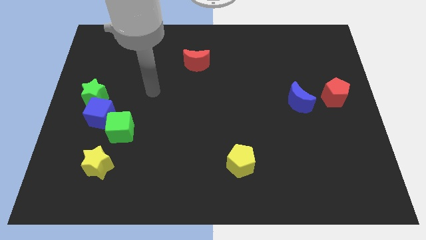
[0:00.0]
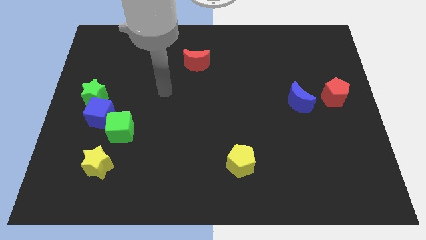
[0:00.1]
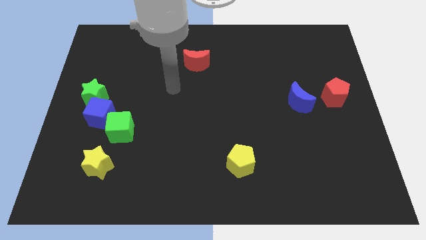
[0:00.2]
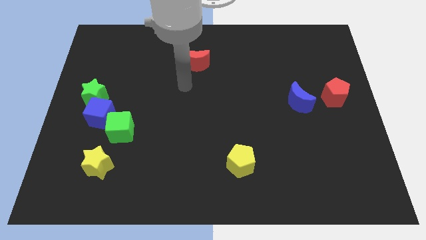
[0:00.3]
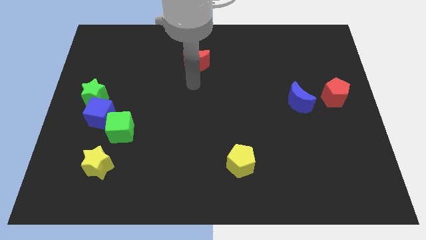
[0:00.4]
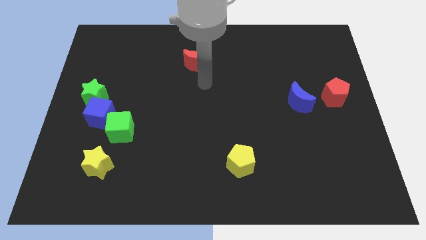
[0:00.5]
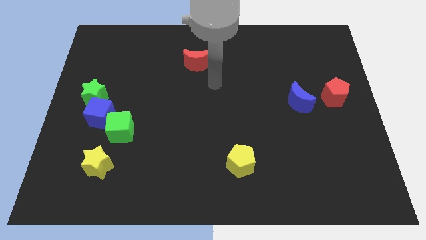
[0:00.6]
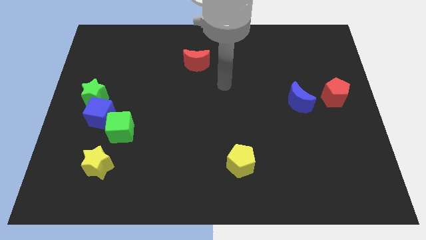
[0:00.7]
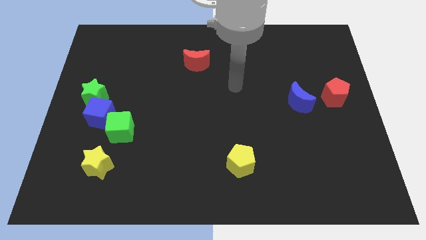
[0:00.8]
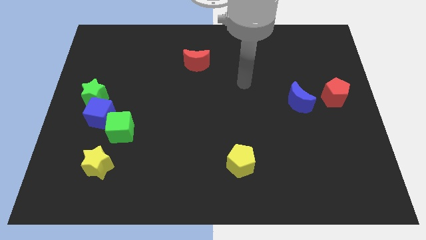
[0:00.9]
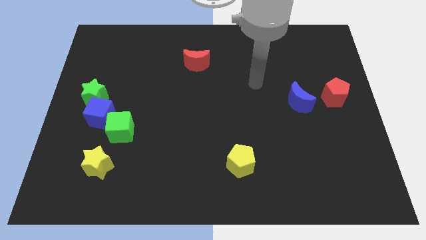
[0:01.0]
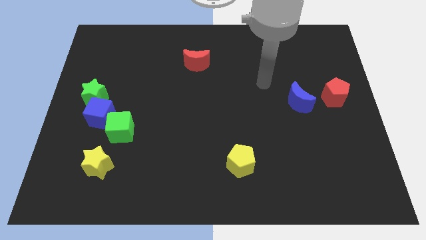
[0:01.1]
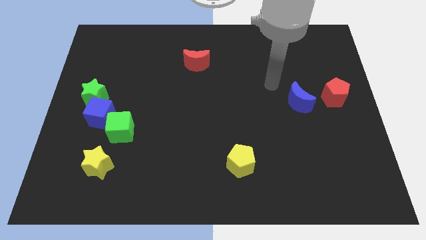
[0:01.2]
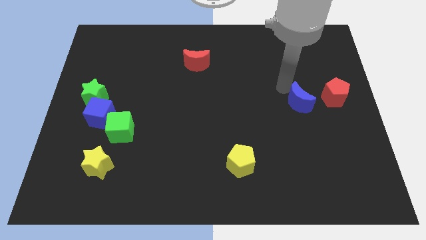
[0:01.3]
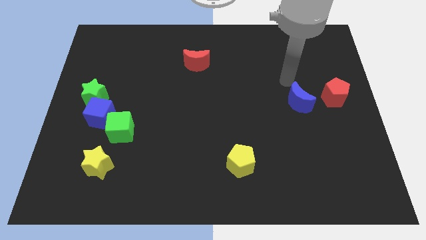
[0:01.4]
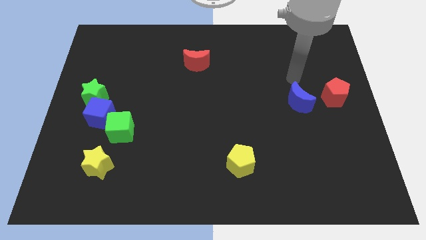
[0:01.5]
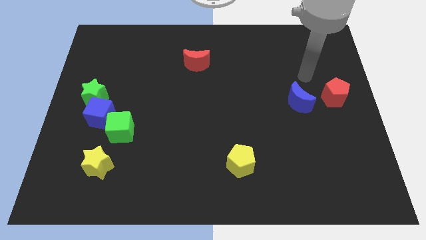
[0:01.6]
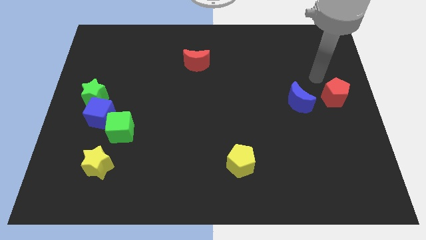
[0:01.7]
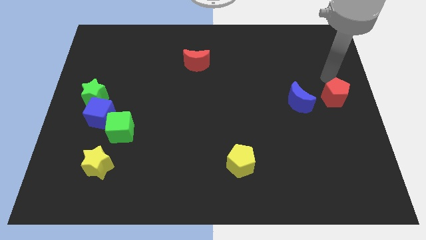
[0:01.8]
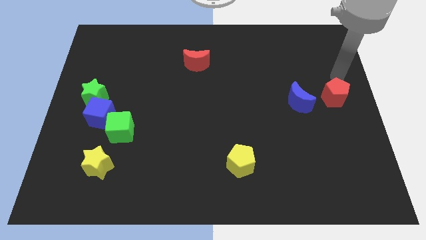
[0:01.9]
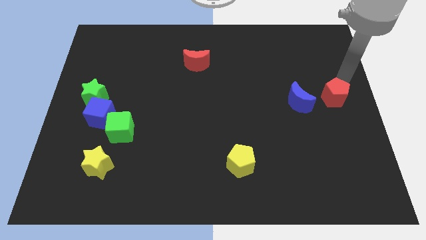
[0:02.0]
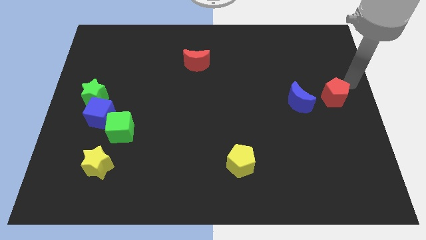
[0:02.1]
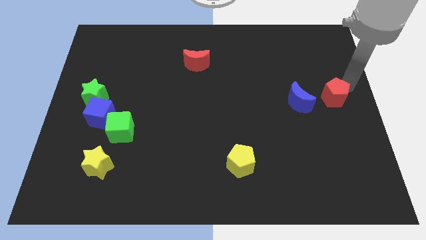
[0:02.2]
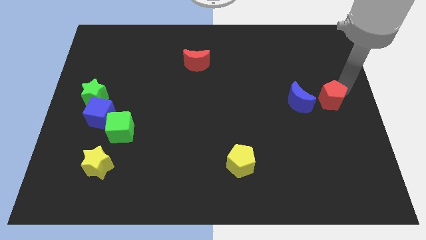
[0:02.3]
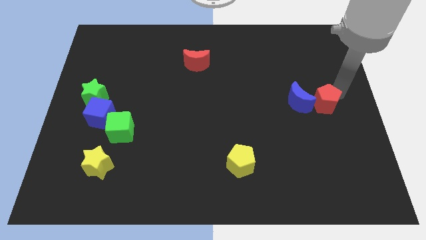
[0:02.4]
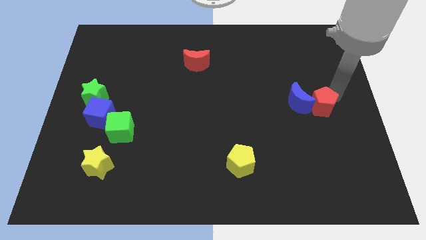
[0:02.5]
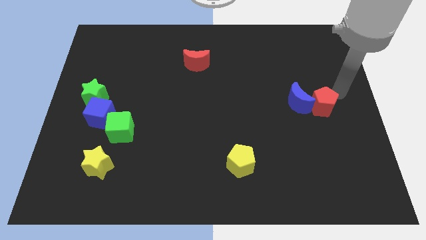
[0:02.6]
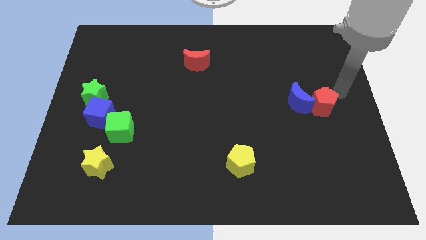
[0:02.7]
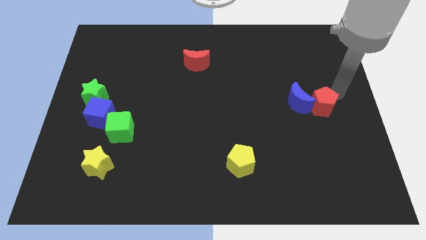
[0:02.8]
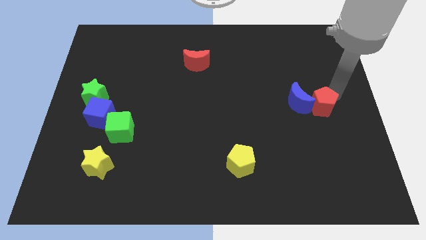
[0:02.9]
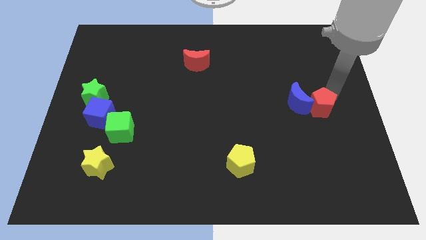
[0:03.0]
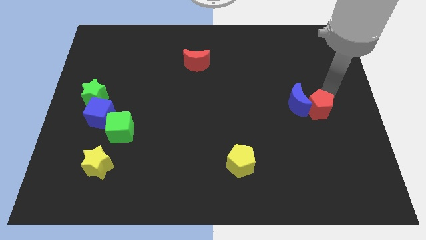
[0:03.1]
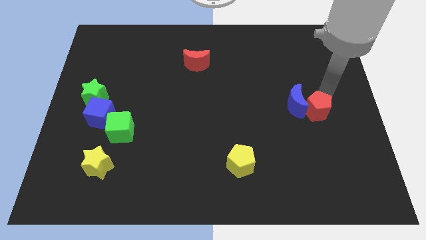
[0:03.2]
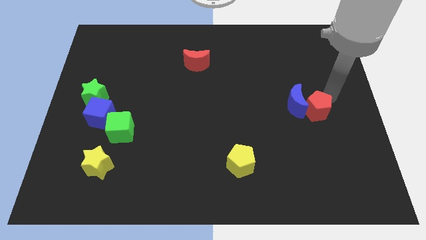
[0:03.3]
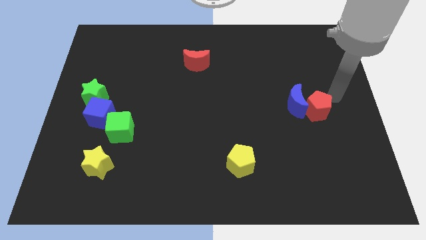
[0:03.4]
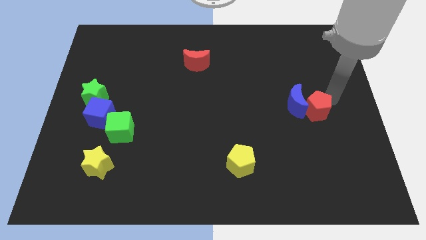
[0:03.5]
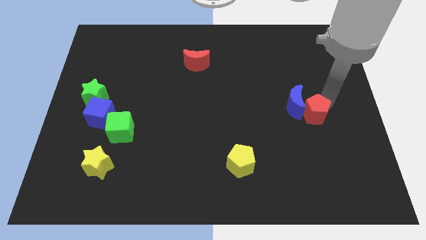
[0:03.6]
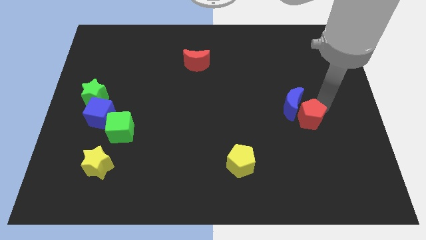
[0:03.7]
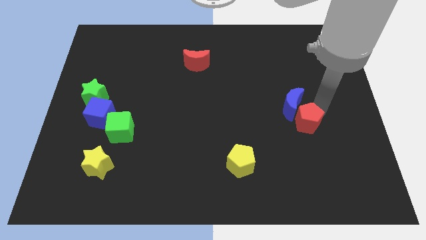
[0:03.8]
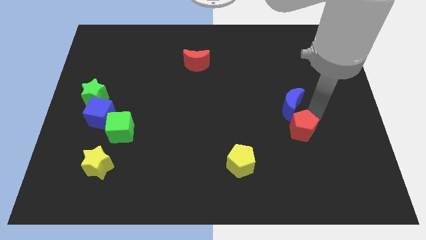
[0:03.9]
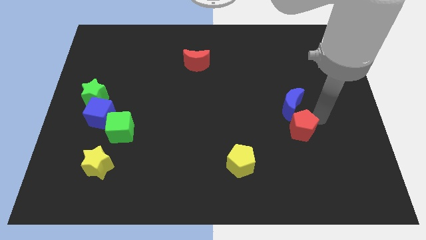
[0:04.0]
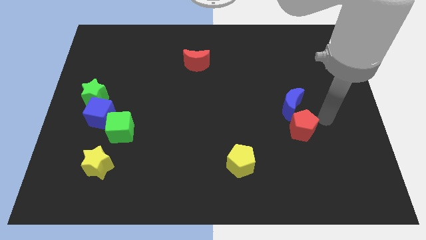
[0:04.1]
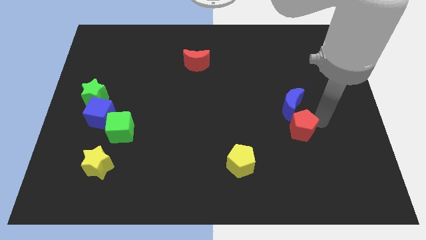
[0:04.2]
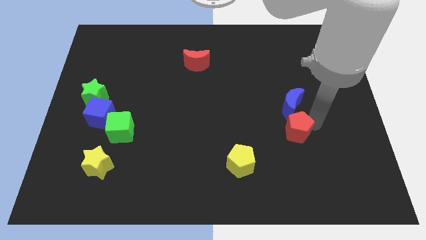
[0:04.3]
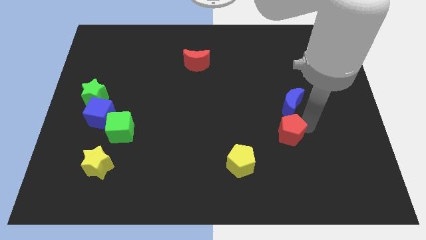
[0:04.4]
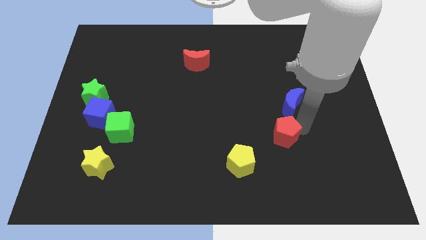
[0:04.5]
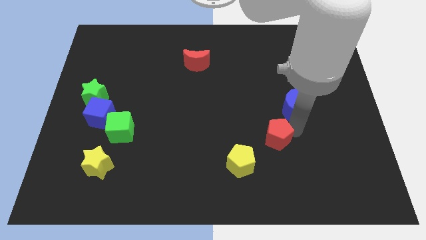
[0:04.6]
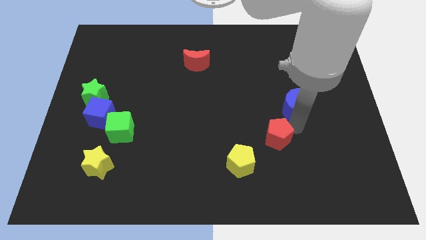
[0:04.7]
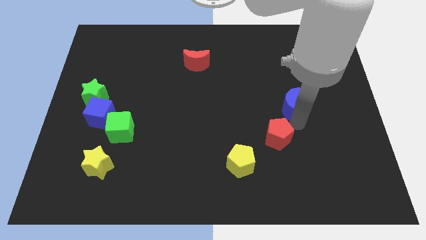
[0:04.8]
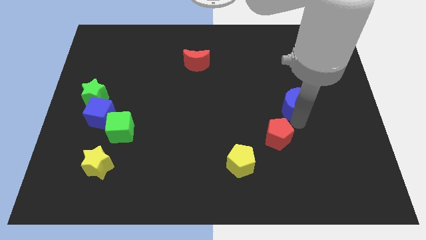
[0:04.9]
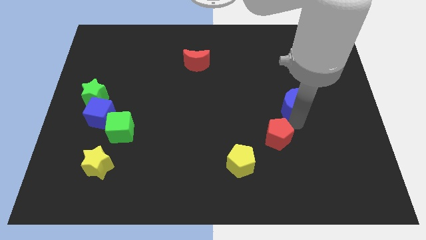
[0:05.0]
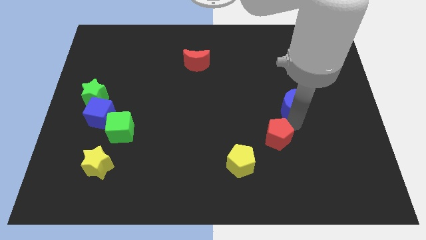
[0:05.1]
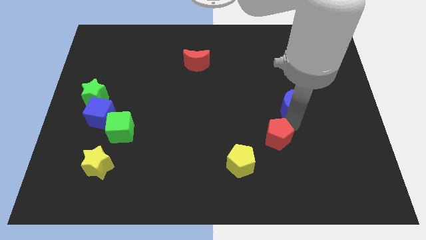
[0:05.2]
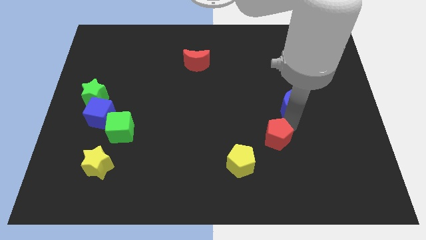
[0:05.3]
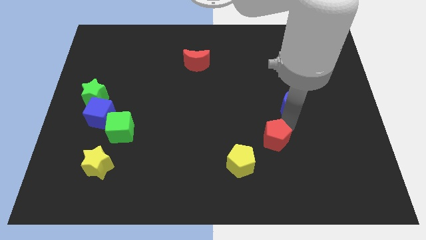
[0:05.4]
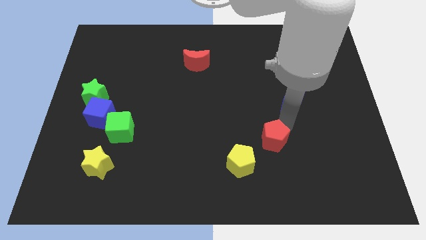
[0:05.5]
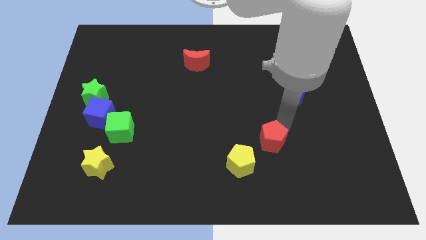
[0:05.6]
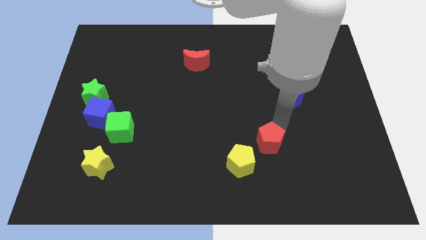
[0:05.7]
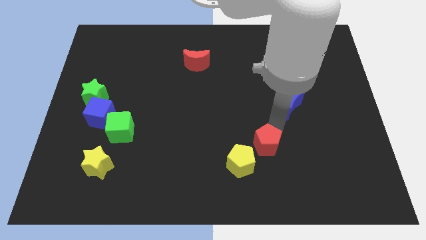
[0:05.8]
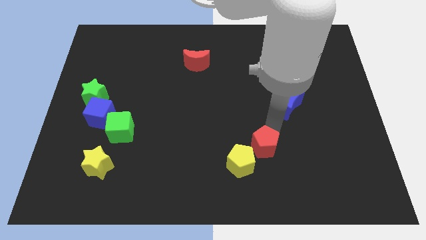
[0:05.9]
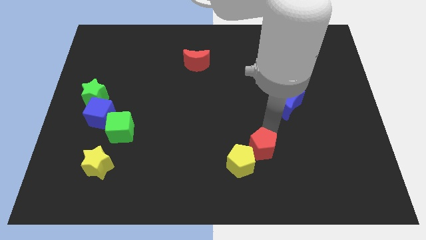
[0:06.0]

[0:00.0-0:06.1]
move the red pentagon next to the yellow pentagon

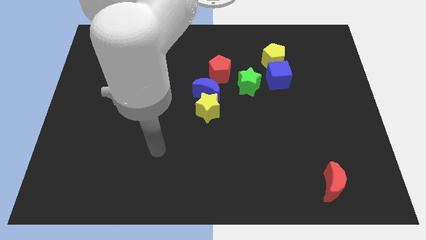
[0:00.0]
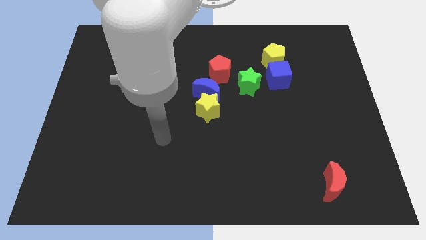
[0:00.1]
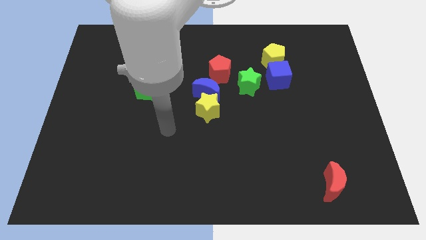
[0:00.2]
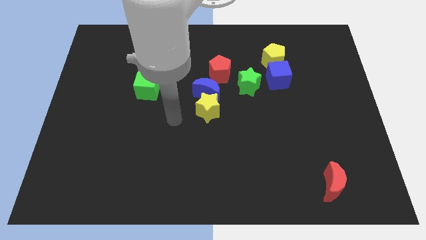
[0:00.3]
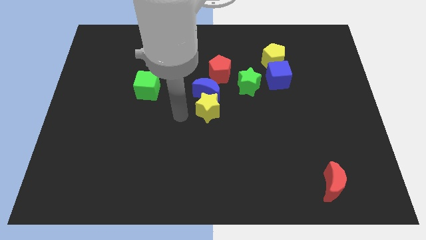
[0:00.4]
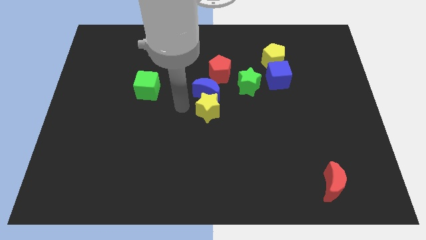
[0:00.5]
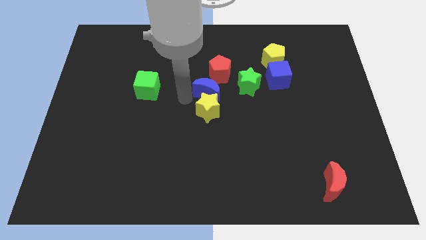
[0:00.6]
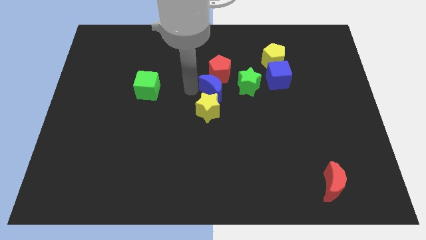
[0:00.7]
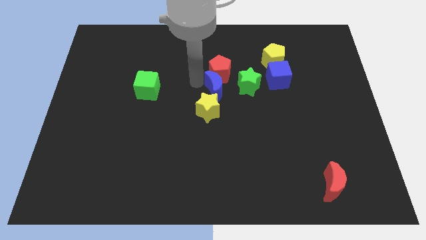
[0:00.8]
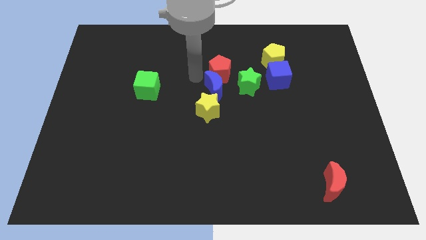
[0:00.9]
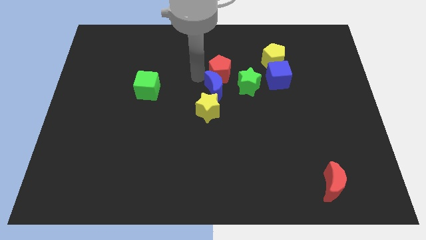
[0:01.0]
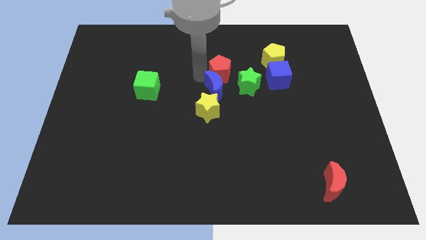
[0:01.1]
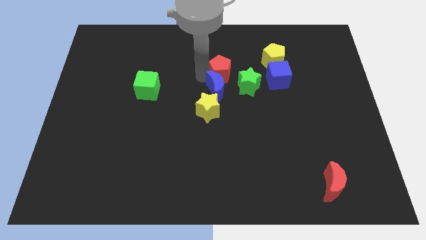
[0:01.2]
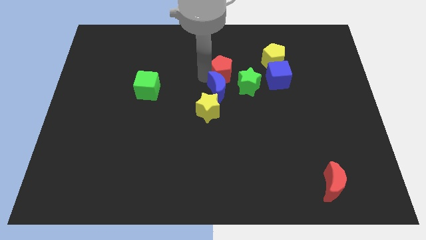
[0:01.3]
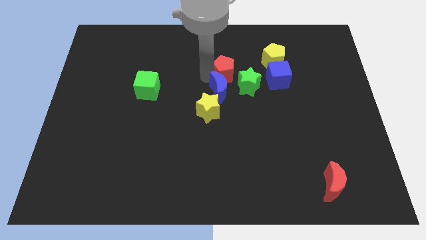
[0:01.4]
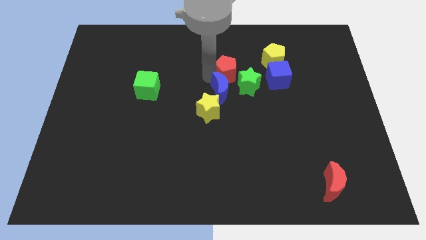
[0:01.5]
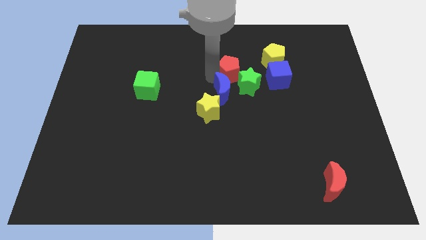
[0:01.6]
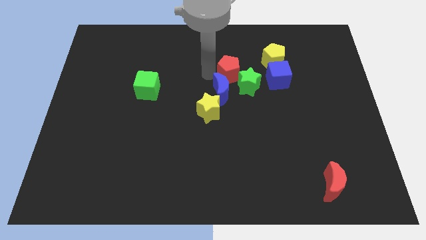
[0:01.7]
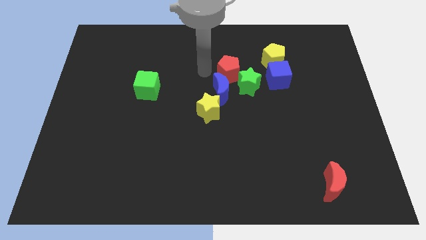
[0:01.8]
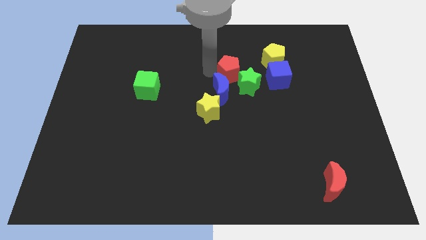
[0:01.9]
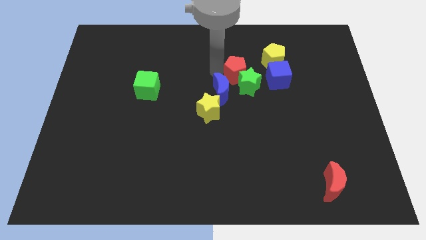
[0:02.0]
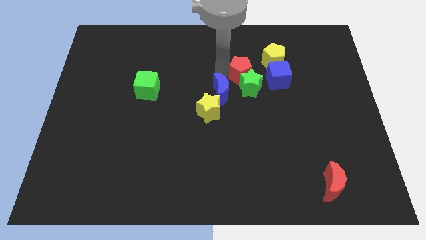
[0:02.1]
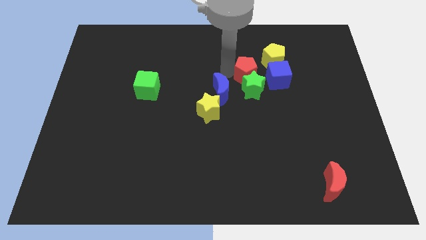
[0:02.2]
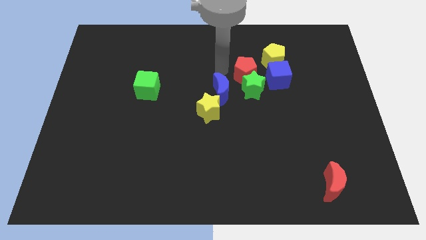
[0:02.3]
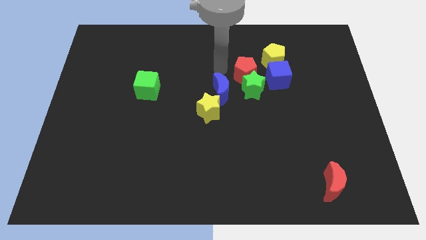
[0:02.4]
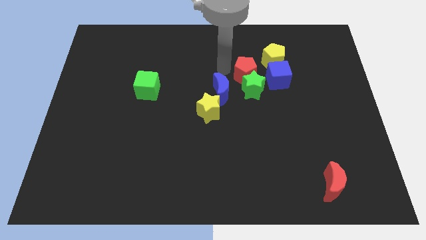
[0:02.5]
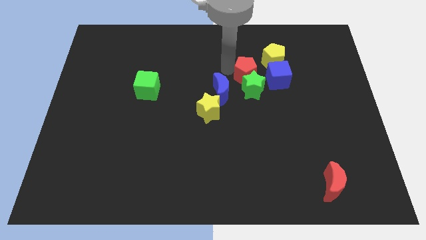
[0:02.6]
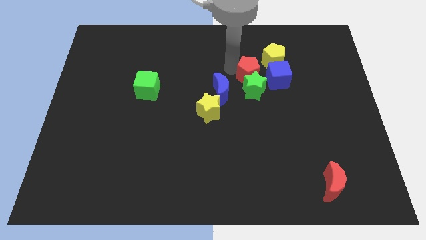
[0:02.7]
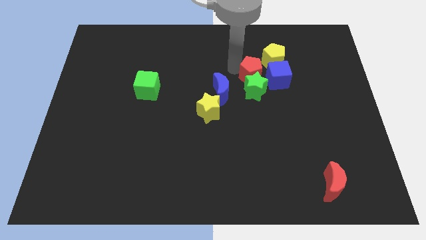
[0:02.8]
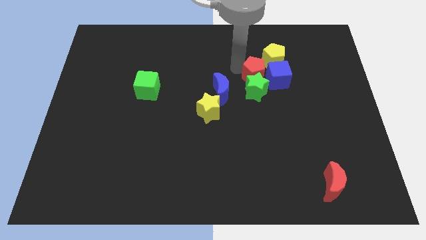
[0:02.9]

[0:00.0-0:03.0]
move the red pentagon close to the blue cube
